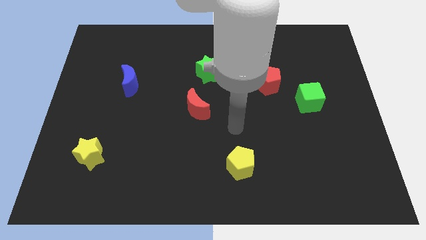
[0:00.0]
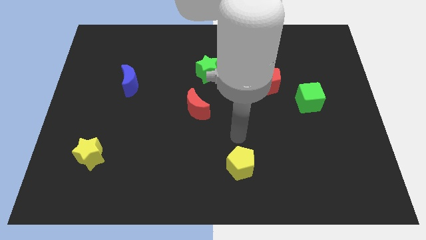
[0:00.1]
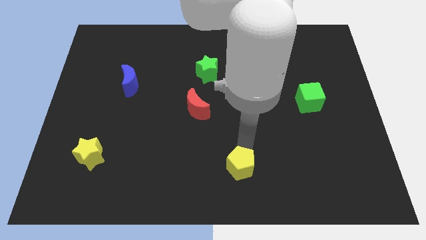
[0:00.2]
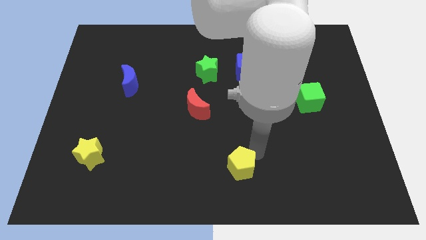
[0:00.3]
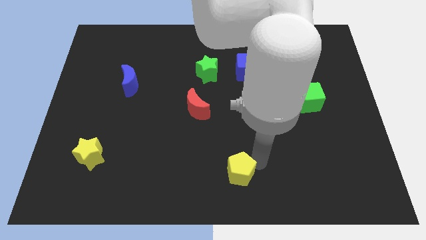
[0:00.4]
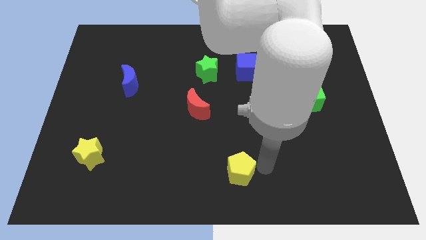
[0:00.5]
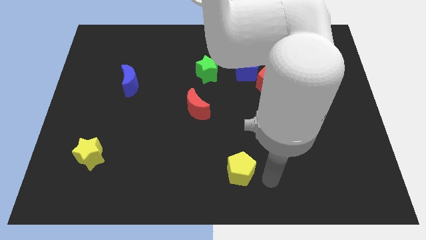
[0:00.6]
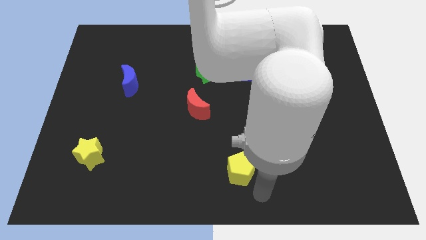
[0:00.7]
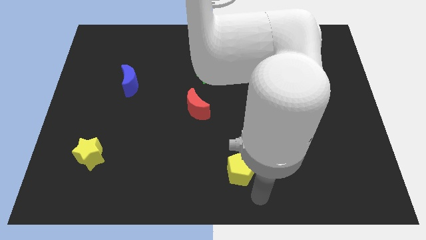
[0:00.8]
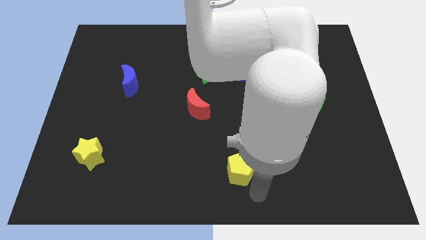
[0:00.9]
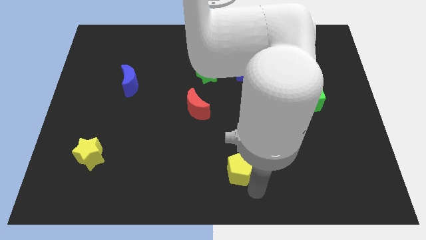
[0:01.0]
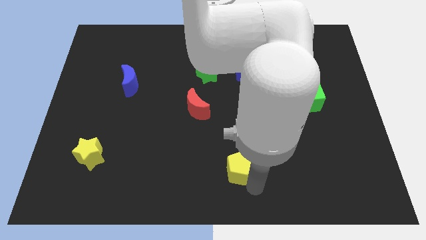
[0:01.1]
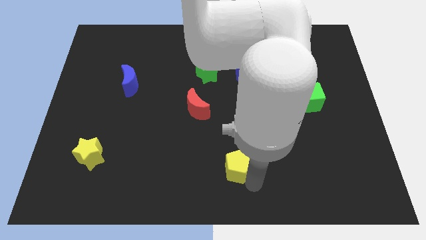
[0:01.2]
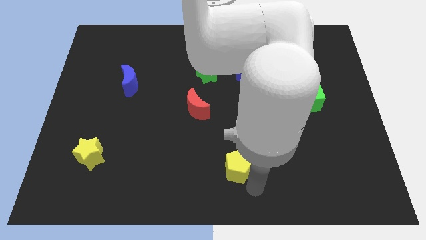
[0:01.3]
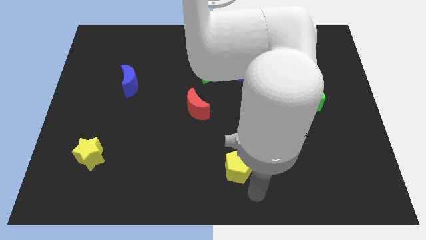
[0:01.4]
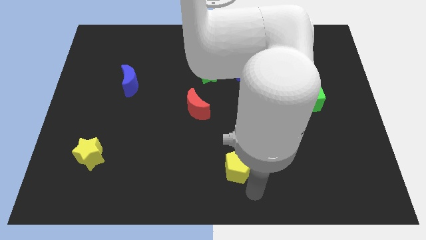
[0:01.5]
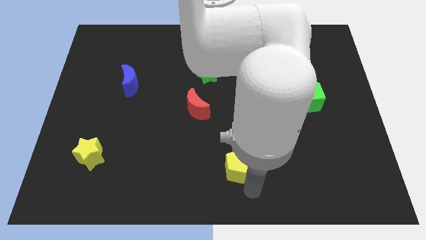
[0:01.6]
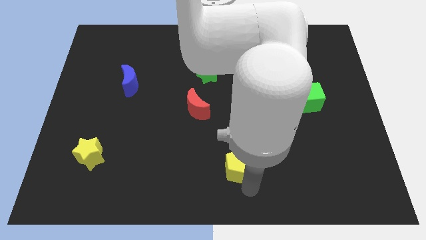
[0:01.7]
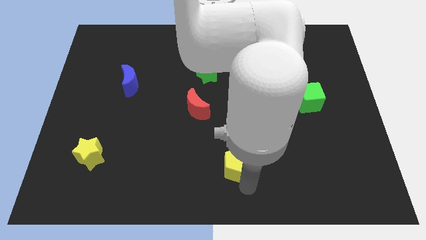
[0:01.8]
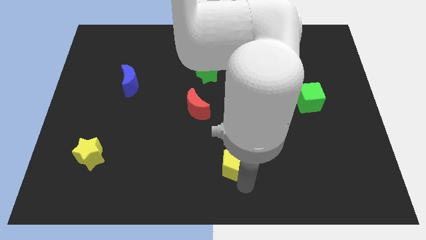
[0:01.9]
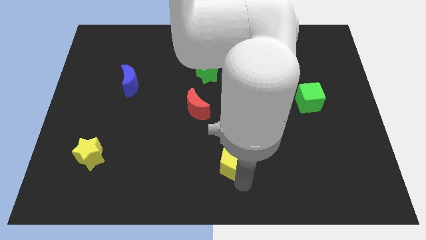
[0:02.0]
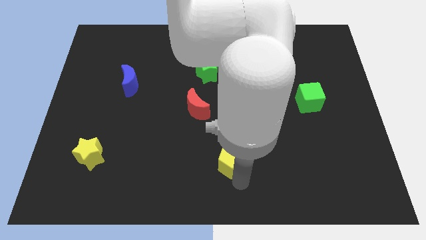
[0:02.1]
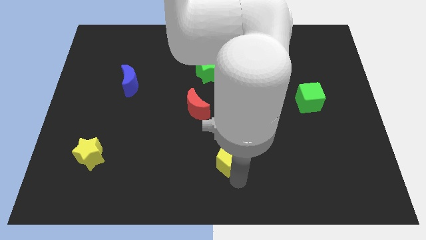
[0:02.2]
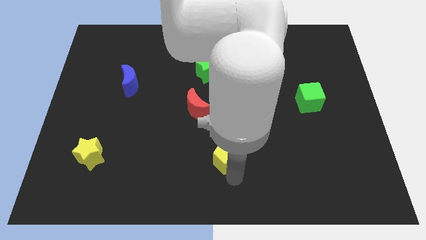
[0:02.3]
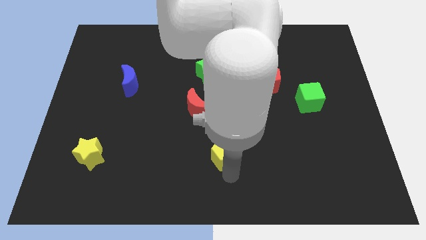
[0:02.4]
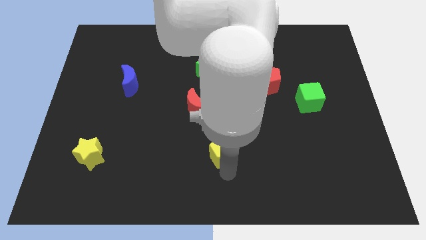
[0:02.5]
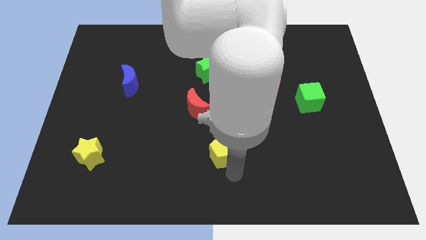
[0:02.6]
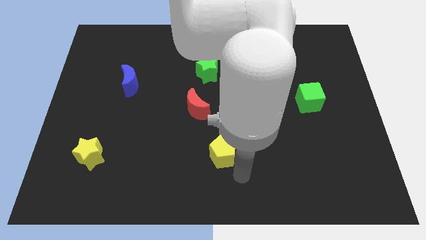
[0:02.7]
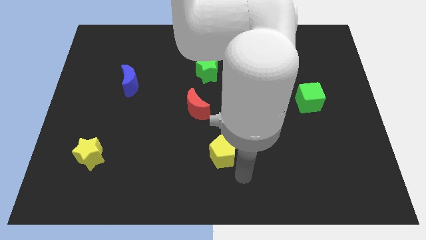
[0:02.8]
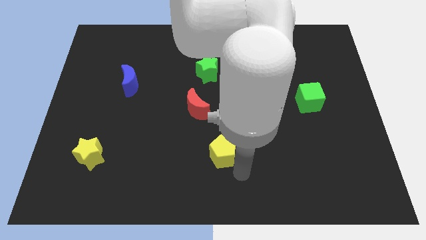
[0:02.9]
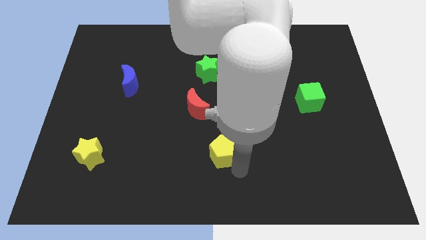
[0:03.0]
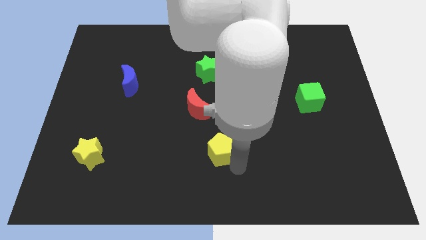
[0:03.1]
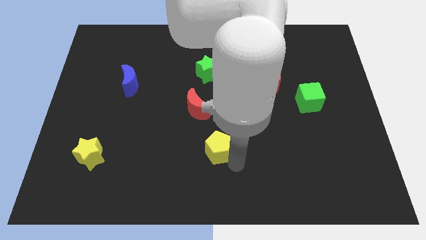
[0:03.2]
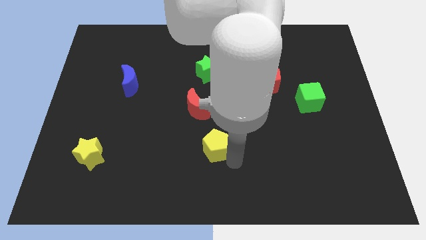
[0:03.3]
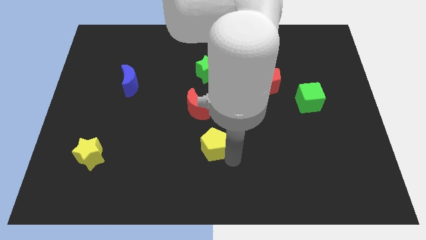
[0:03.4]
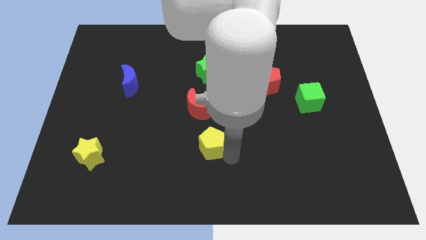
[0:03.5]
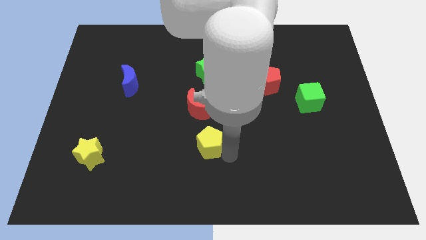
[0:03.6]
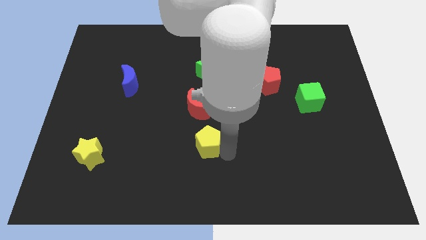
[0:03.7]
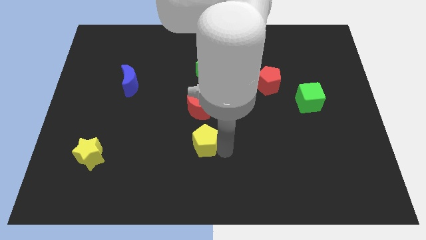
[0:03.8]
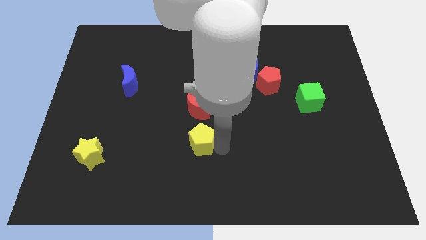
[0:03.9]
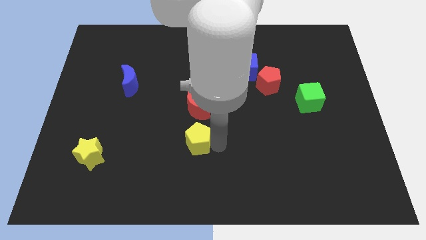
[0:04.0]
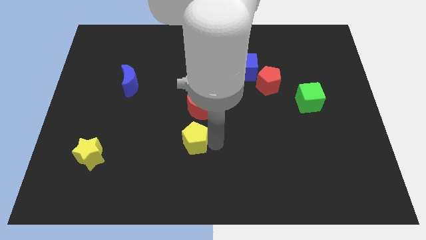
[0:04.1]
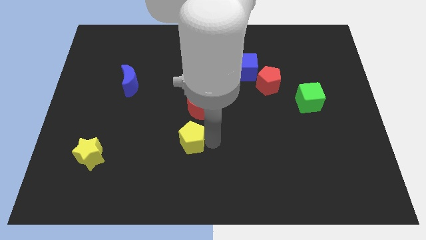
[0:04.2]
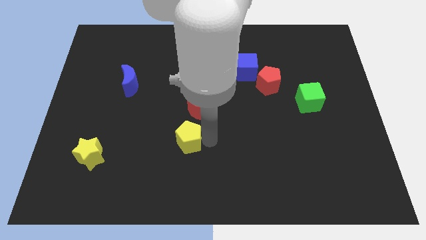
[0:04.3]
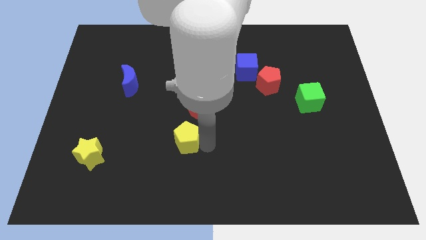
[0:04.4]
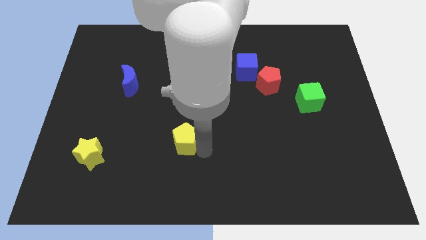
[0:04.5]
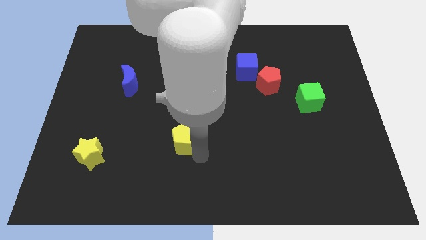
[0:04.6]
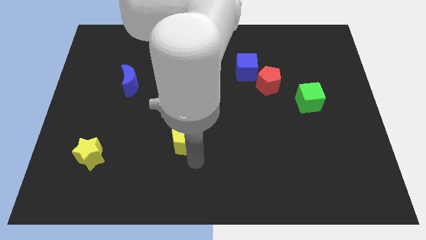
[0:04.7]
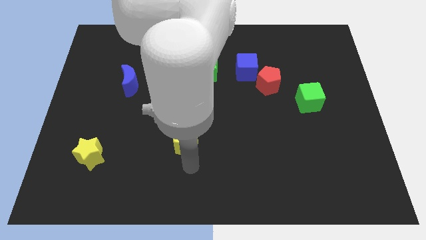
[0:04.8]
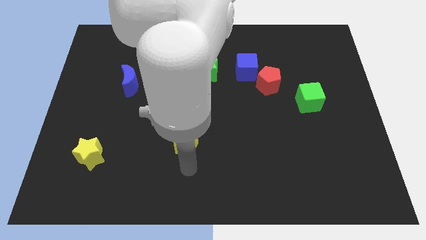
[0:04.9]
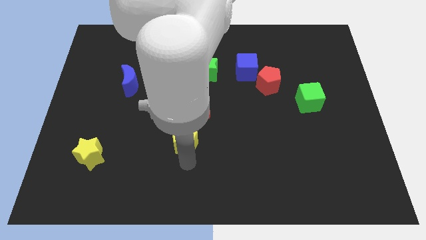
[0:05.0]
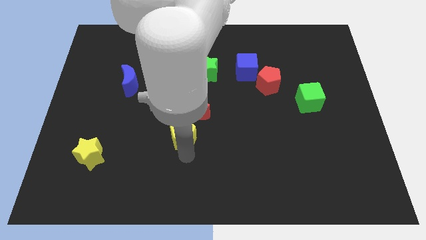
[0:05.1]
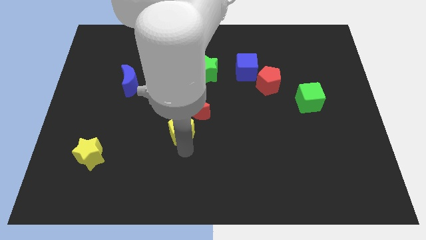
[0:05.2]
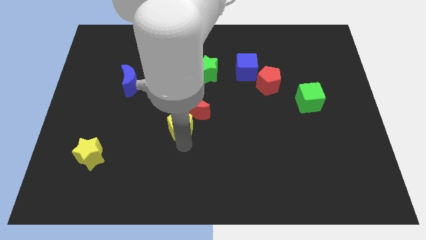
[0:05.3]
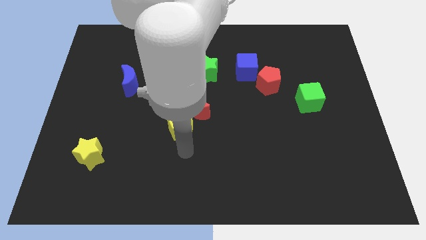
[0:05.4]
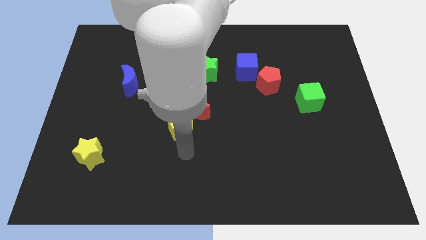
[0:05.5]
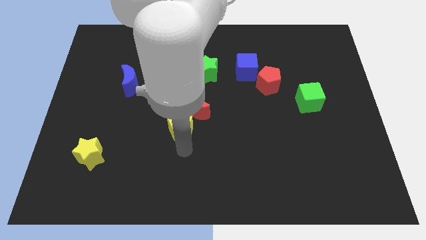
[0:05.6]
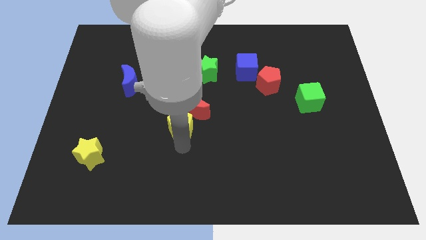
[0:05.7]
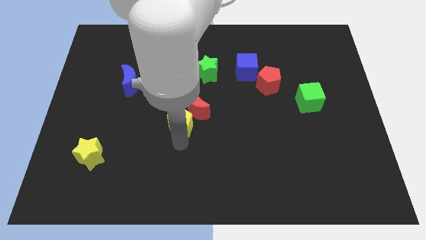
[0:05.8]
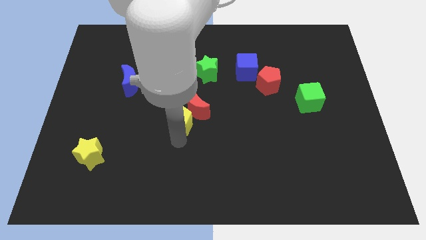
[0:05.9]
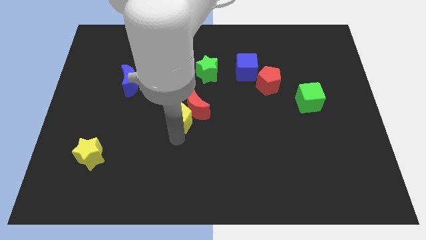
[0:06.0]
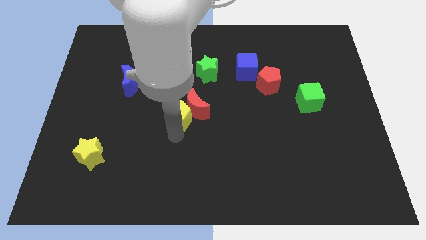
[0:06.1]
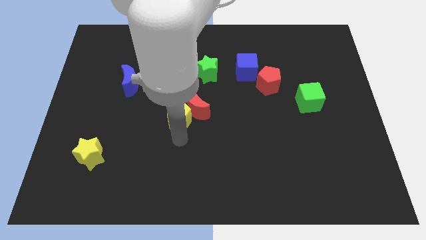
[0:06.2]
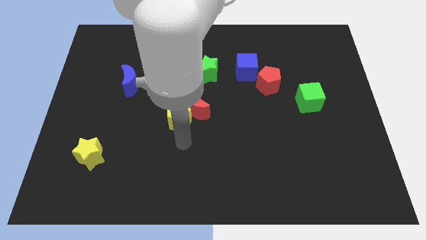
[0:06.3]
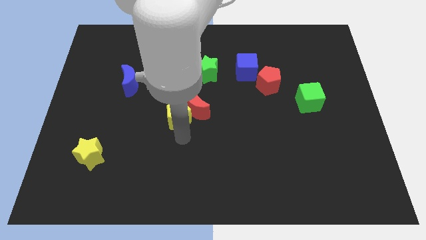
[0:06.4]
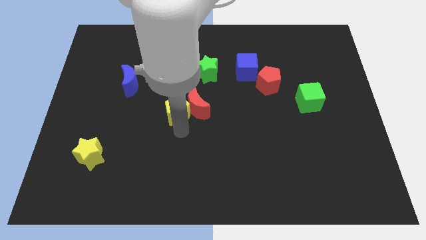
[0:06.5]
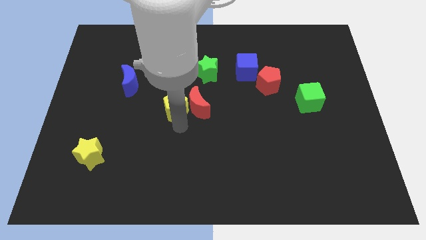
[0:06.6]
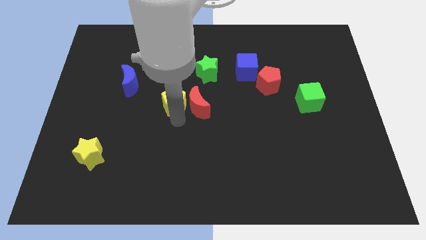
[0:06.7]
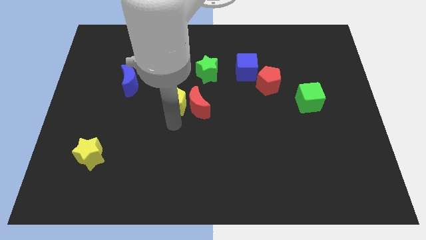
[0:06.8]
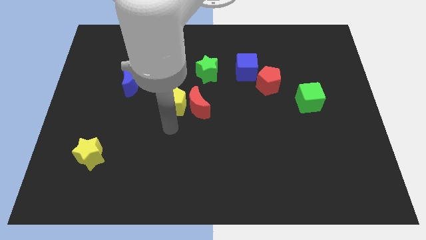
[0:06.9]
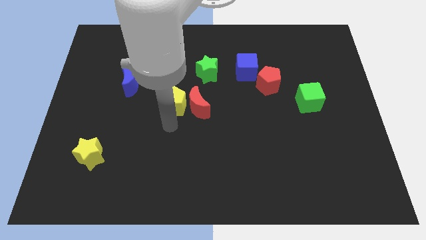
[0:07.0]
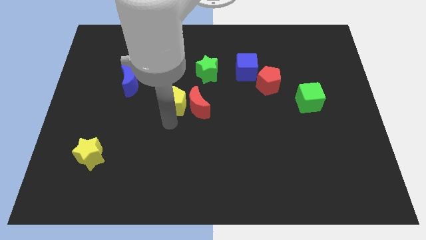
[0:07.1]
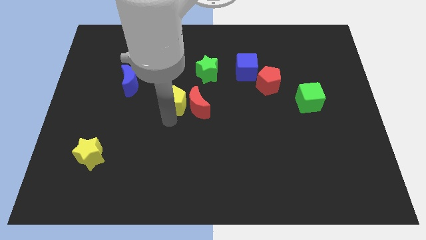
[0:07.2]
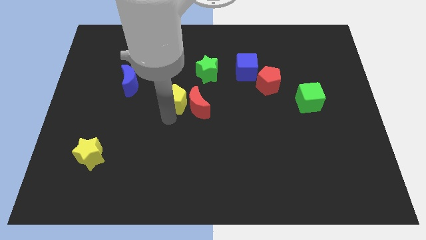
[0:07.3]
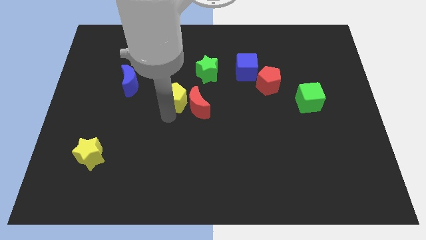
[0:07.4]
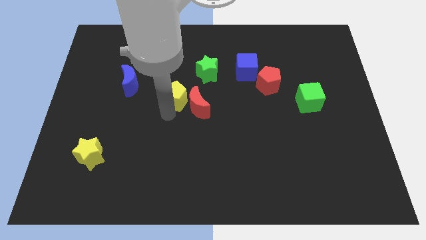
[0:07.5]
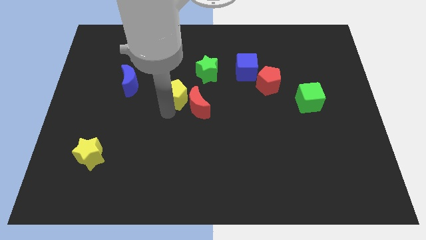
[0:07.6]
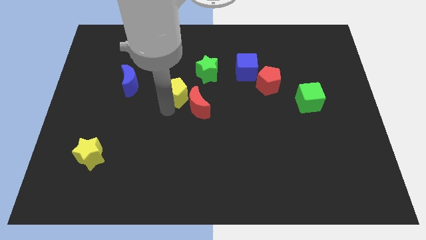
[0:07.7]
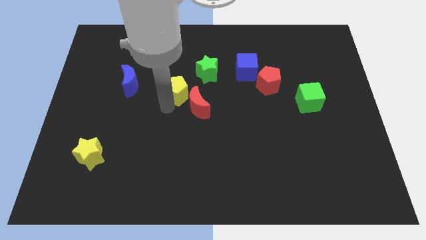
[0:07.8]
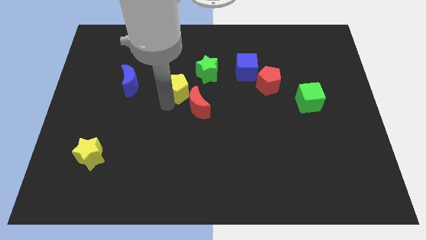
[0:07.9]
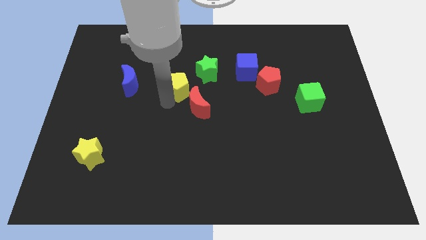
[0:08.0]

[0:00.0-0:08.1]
move the yellow pentagon to the top of the red moon

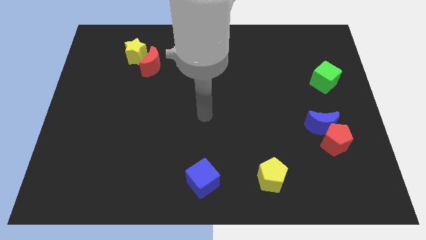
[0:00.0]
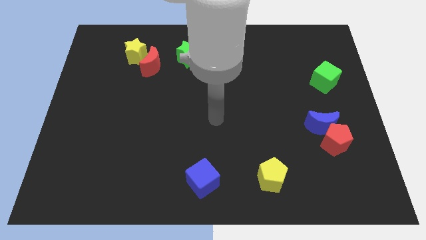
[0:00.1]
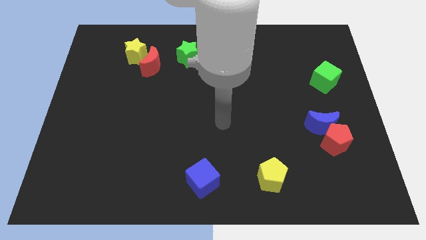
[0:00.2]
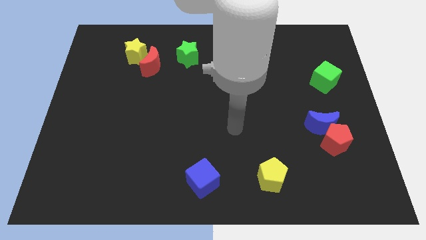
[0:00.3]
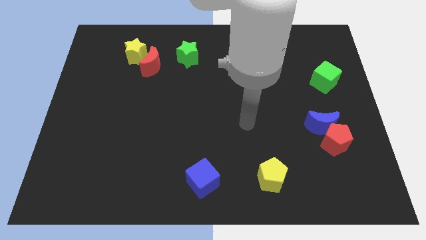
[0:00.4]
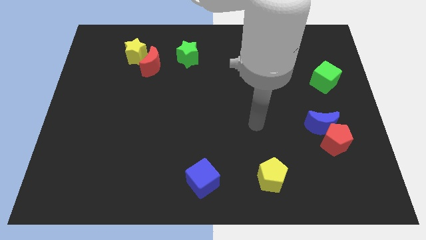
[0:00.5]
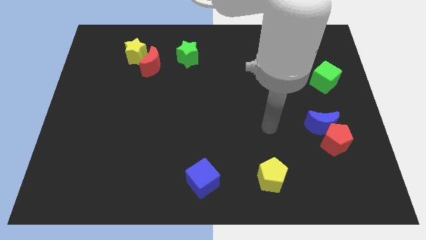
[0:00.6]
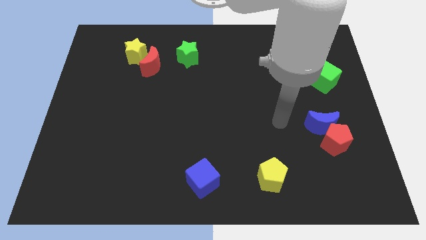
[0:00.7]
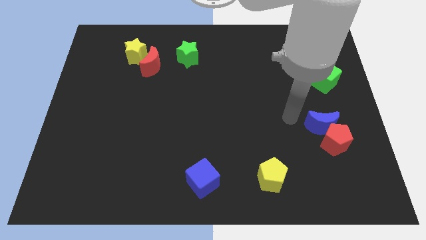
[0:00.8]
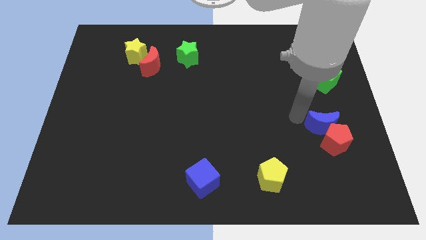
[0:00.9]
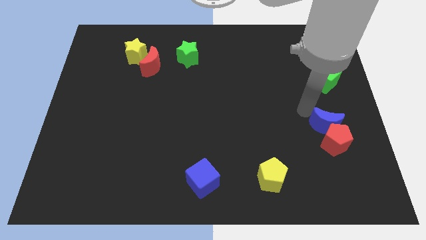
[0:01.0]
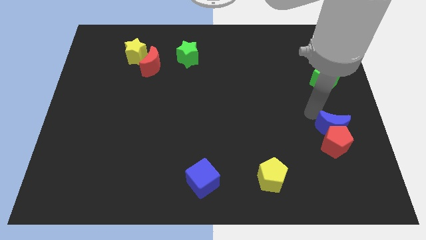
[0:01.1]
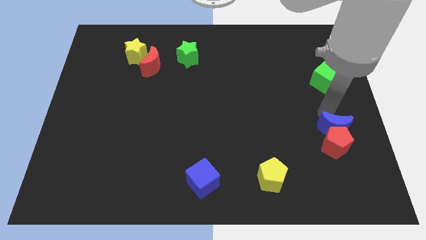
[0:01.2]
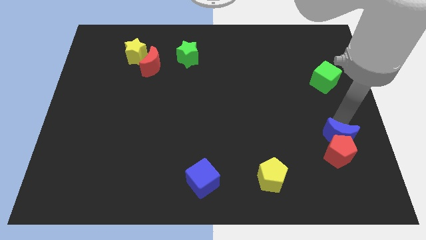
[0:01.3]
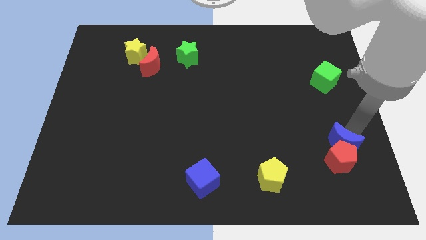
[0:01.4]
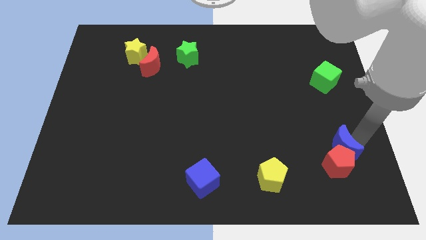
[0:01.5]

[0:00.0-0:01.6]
move the red pentagon just right of the yellow pentagon
